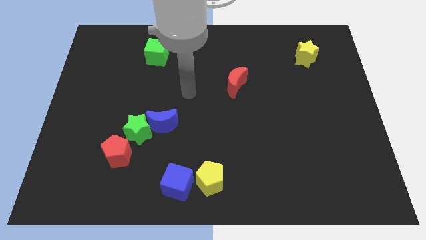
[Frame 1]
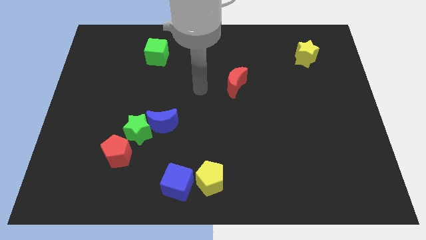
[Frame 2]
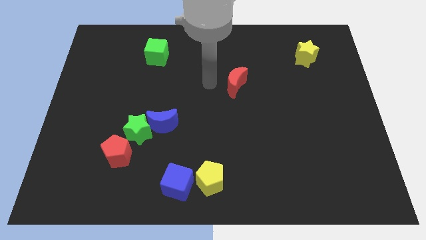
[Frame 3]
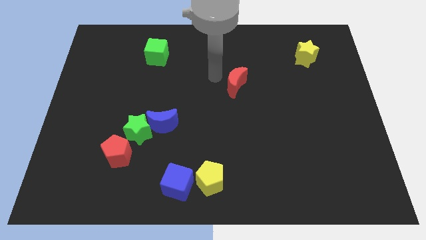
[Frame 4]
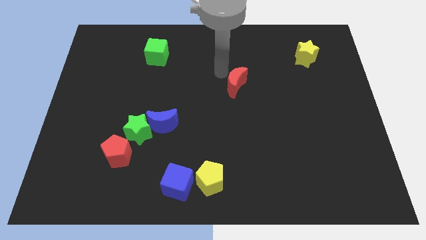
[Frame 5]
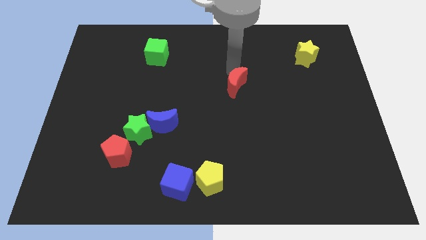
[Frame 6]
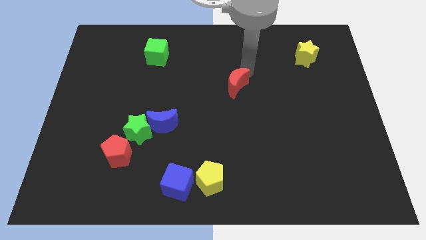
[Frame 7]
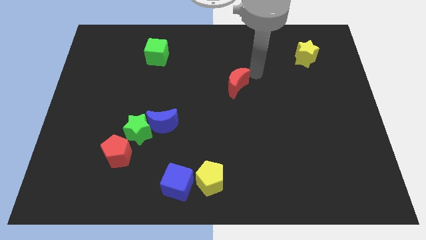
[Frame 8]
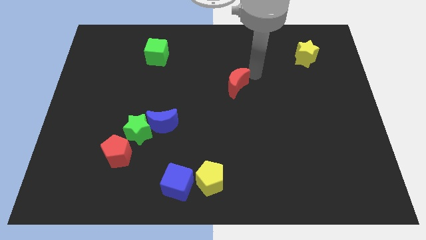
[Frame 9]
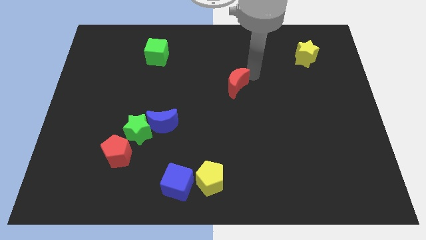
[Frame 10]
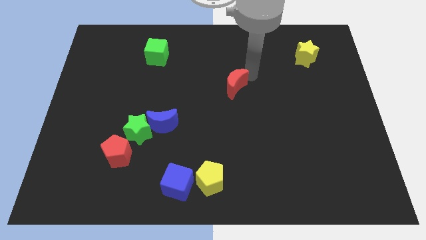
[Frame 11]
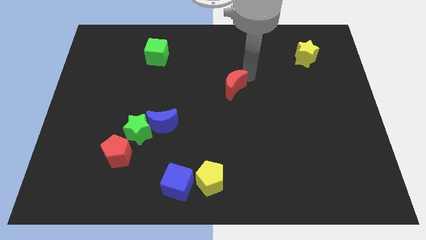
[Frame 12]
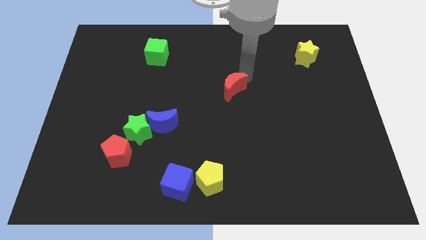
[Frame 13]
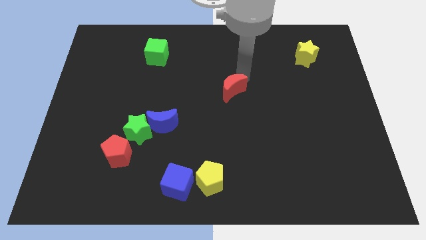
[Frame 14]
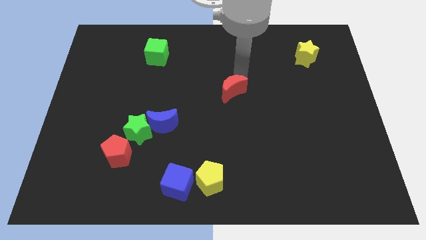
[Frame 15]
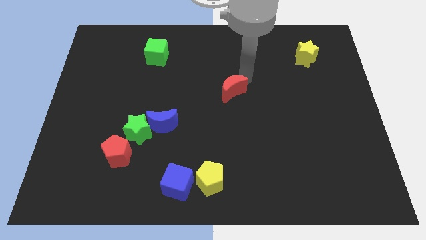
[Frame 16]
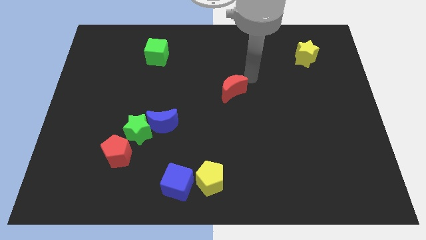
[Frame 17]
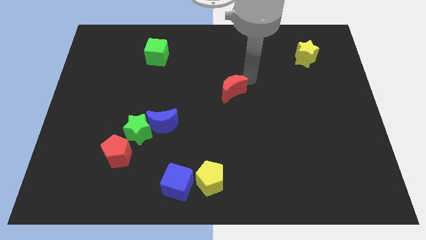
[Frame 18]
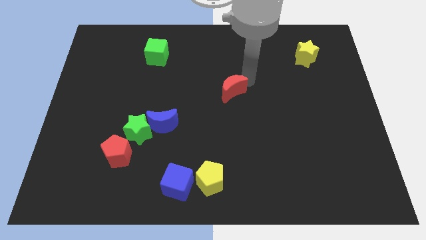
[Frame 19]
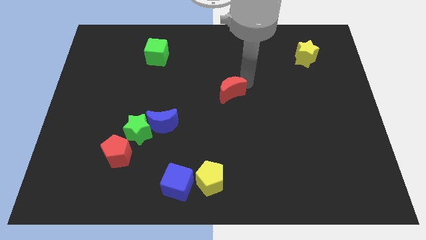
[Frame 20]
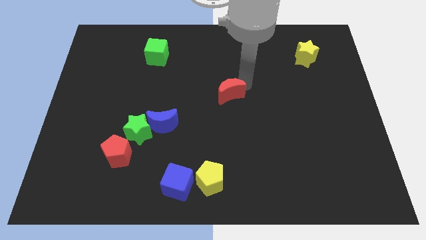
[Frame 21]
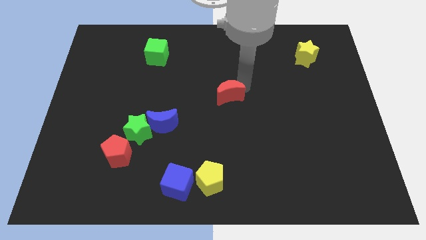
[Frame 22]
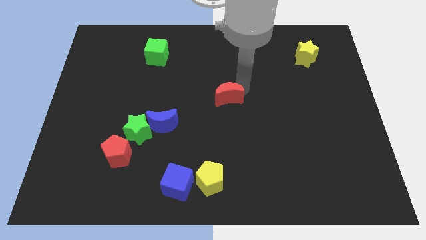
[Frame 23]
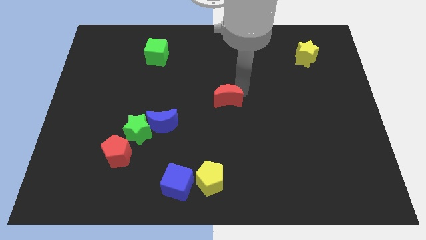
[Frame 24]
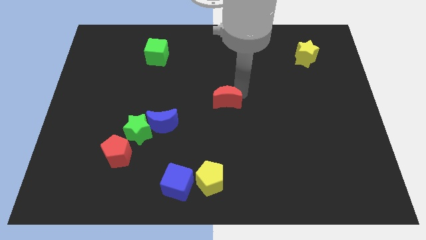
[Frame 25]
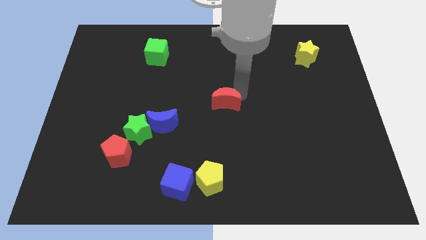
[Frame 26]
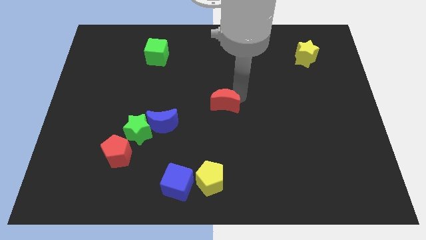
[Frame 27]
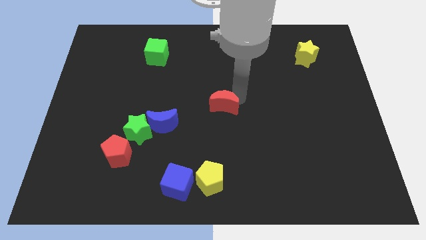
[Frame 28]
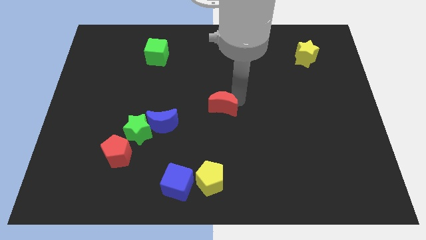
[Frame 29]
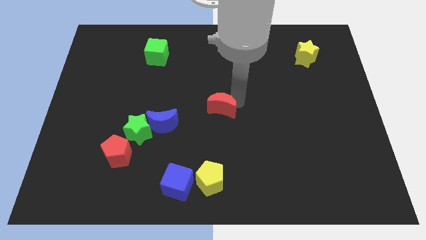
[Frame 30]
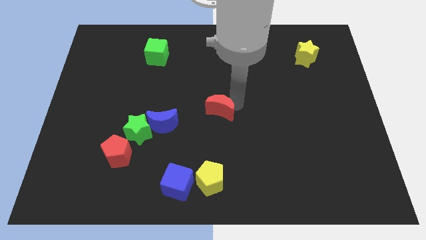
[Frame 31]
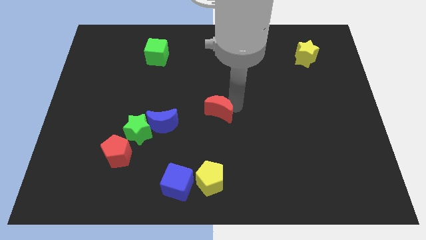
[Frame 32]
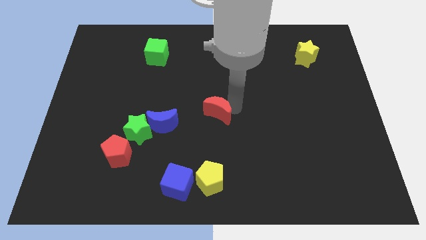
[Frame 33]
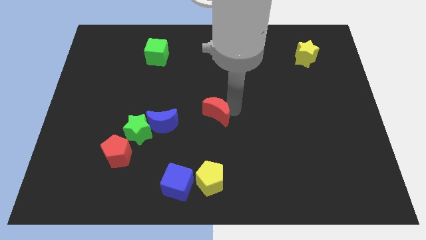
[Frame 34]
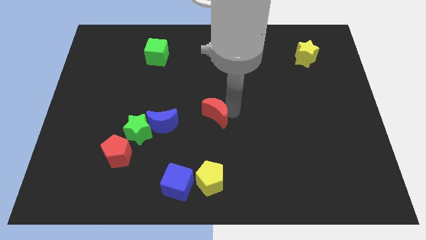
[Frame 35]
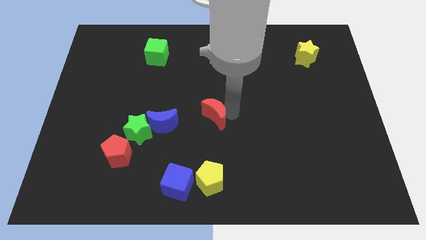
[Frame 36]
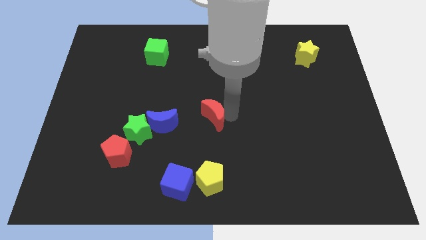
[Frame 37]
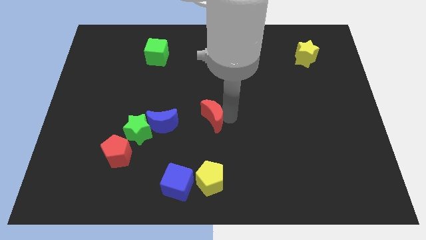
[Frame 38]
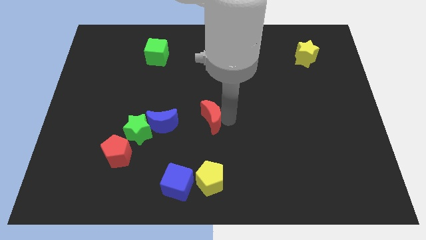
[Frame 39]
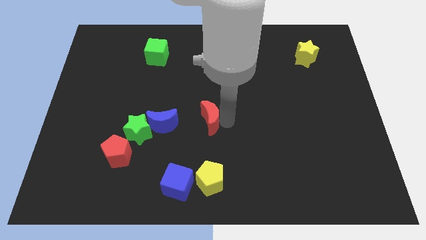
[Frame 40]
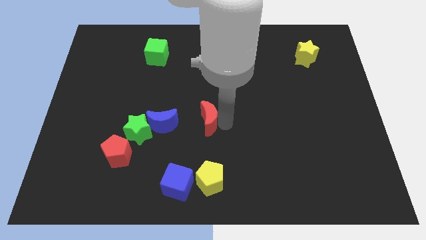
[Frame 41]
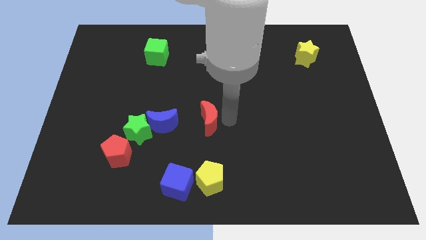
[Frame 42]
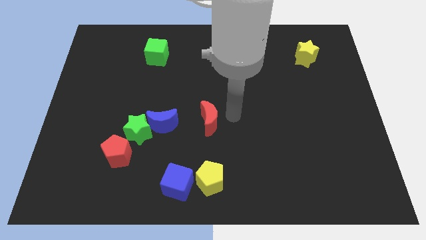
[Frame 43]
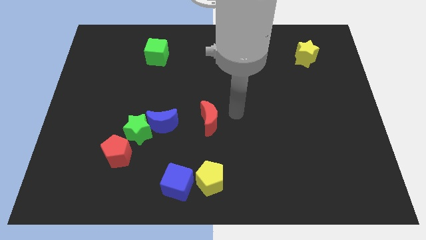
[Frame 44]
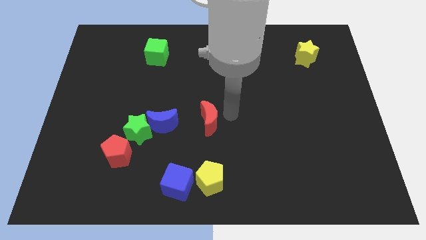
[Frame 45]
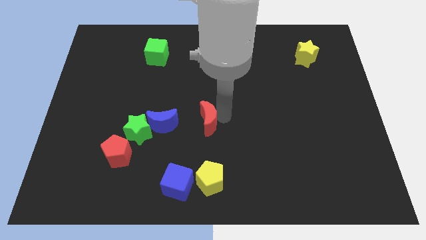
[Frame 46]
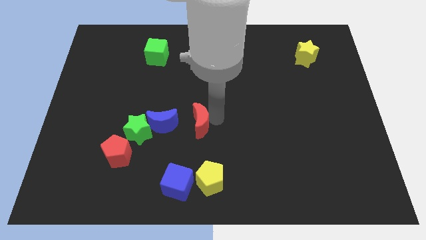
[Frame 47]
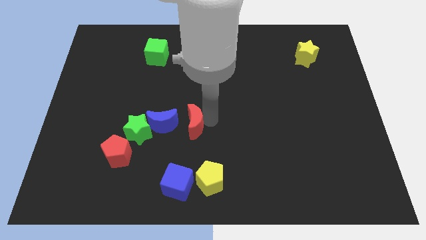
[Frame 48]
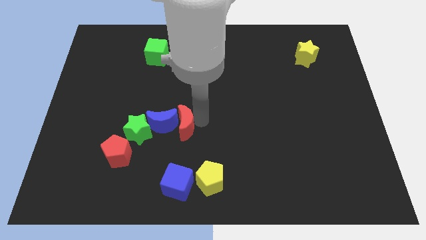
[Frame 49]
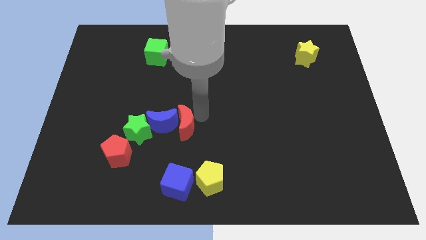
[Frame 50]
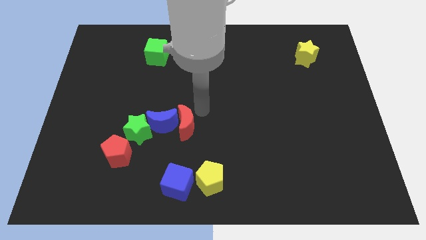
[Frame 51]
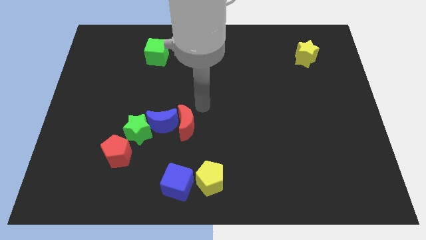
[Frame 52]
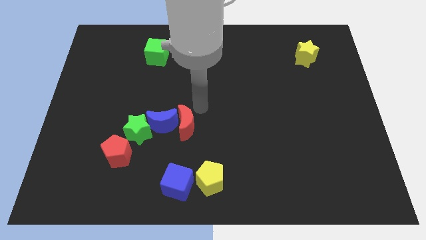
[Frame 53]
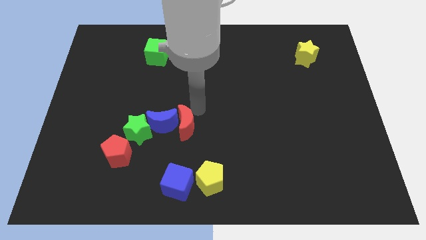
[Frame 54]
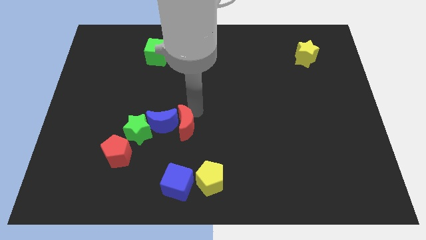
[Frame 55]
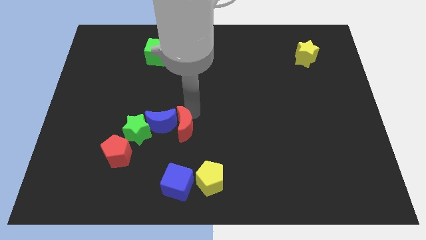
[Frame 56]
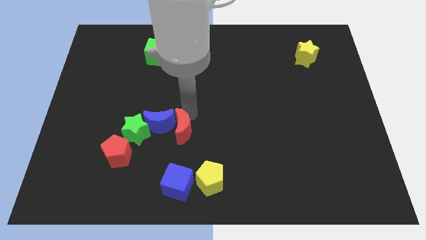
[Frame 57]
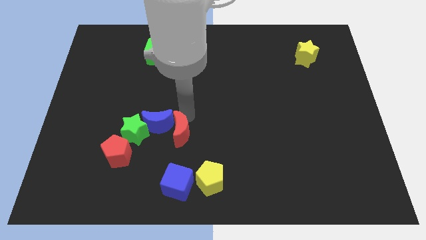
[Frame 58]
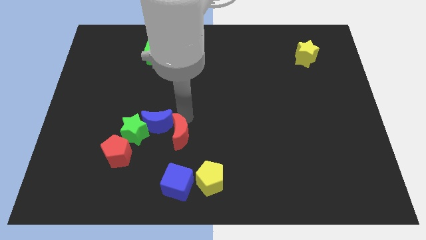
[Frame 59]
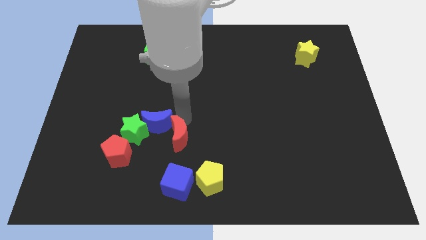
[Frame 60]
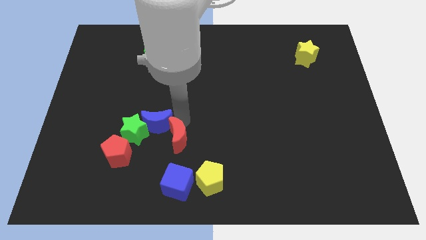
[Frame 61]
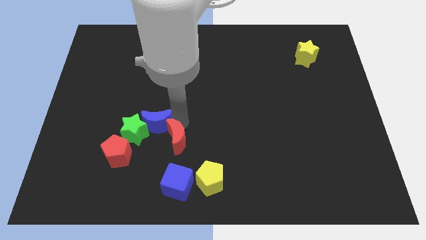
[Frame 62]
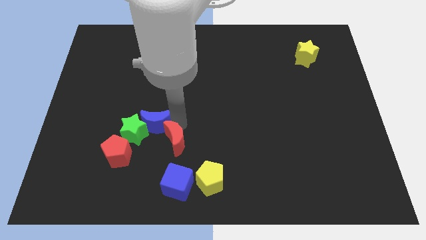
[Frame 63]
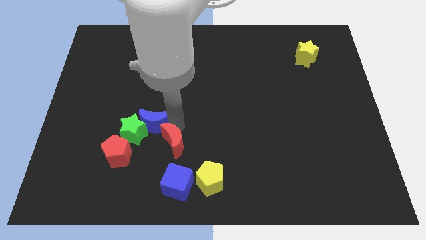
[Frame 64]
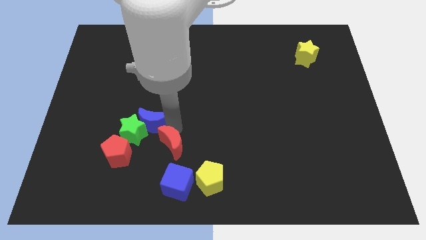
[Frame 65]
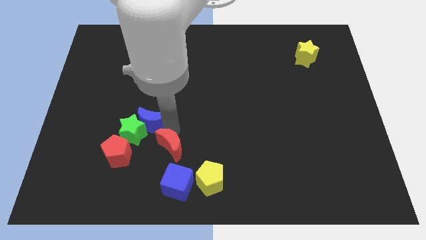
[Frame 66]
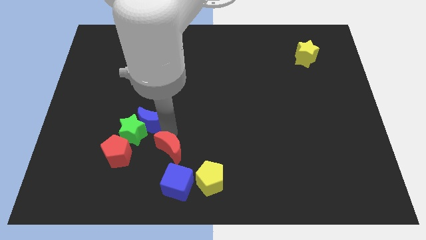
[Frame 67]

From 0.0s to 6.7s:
push the red moon diagonally up and to the left of the blue cube

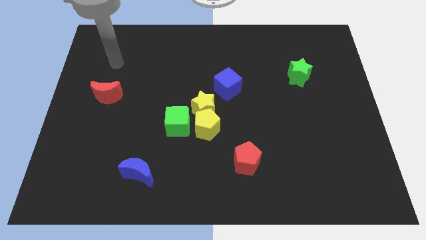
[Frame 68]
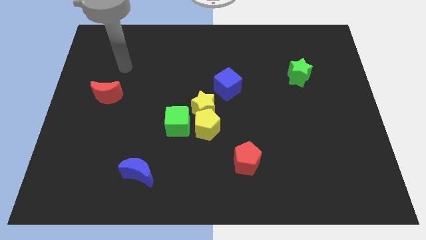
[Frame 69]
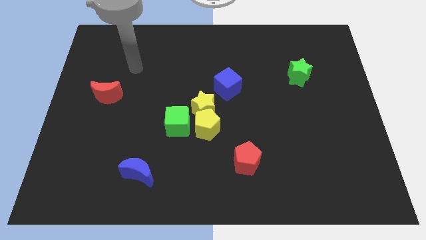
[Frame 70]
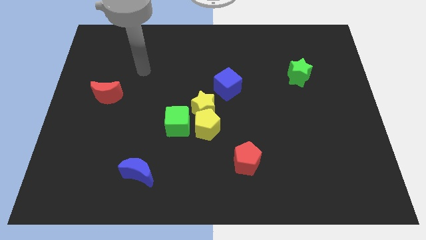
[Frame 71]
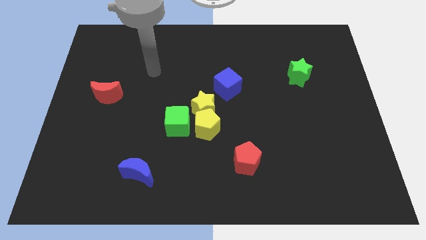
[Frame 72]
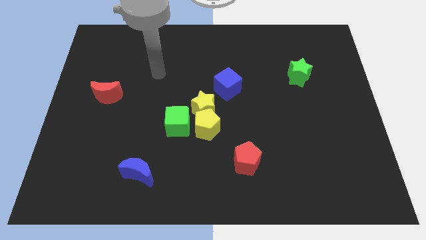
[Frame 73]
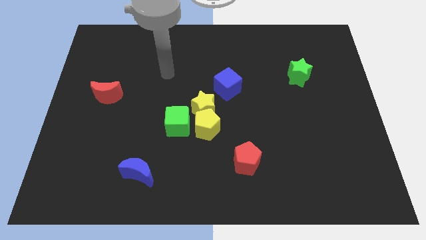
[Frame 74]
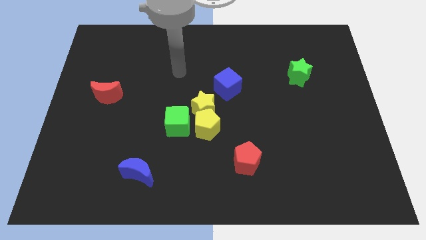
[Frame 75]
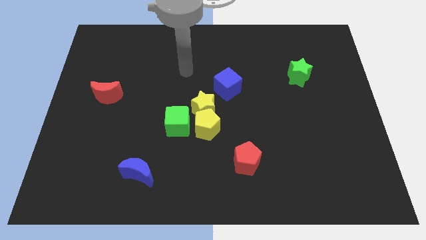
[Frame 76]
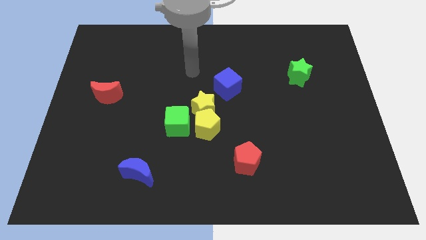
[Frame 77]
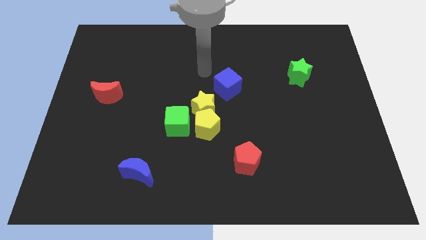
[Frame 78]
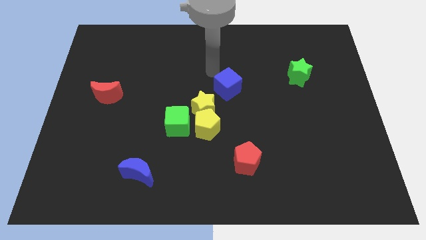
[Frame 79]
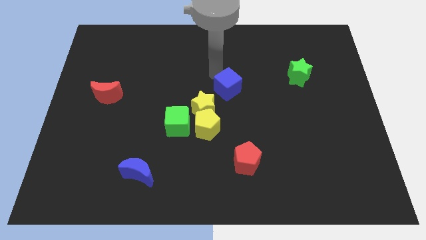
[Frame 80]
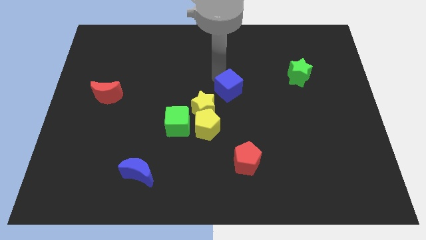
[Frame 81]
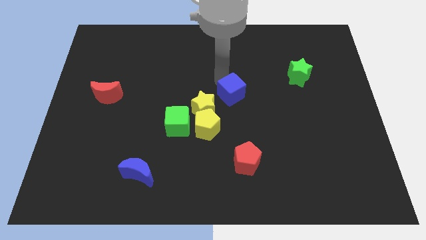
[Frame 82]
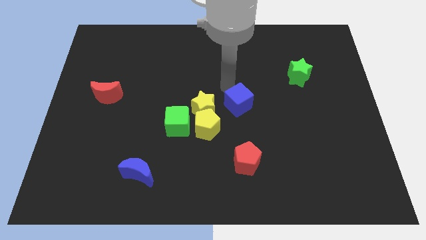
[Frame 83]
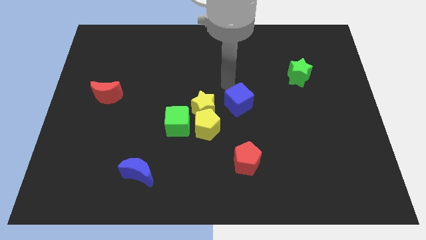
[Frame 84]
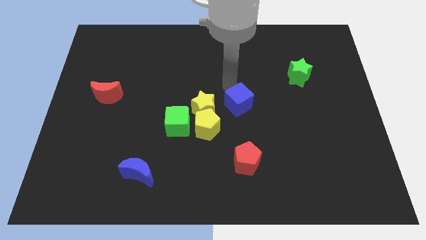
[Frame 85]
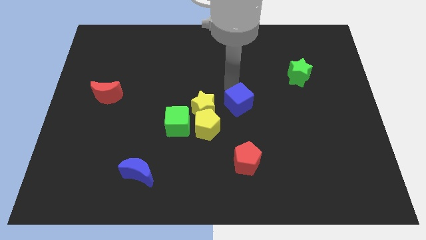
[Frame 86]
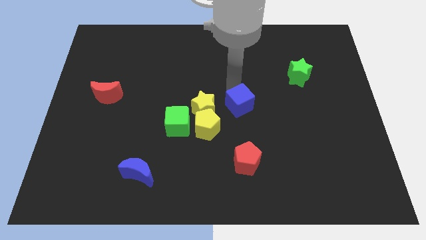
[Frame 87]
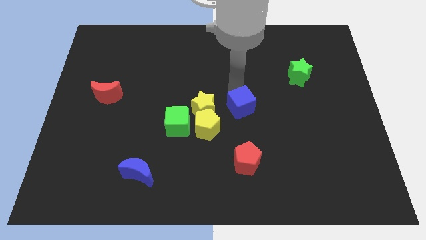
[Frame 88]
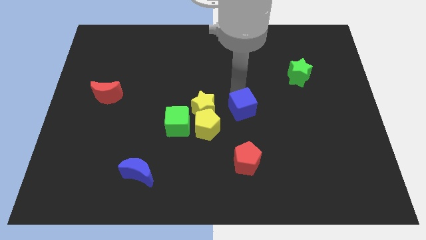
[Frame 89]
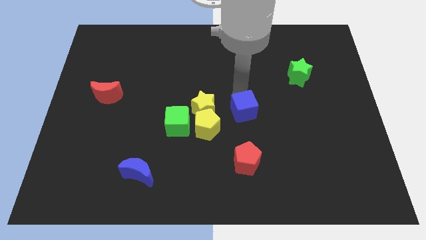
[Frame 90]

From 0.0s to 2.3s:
put the blue cube to the right side of the yellow pentagon
